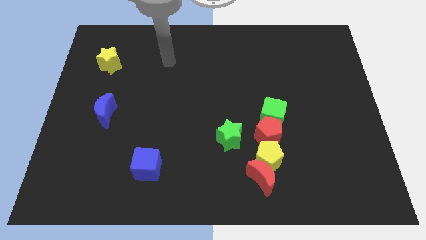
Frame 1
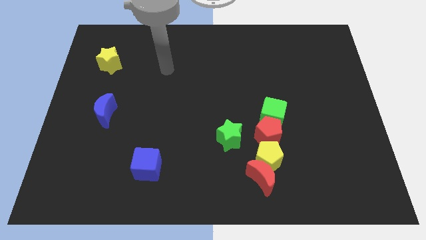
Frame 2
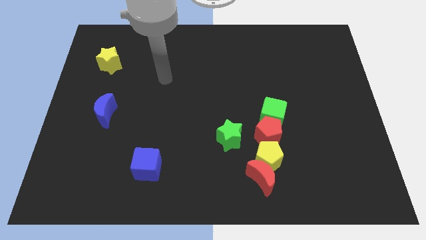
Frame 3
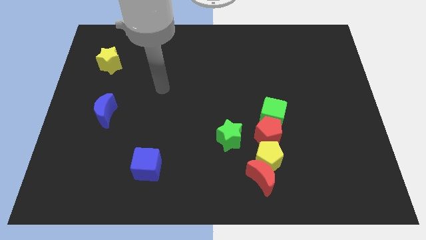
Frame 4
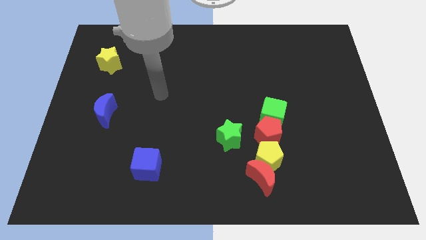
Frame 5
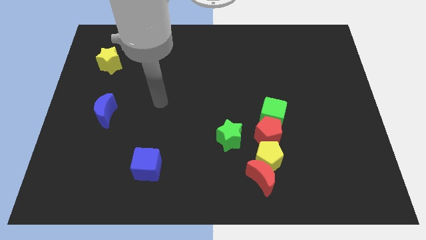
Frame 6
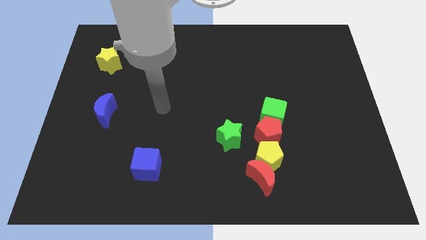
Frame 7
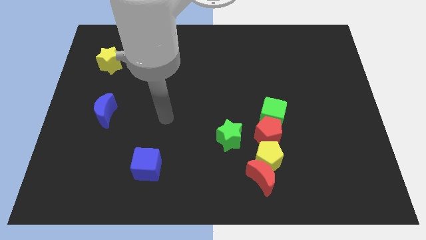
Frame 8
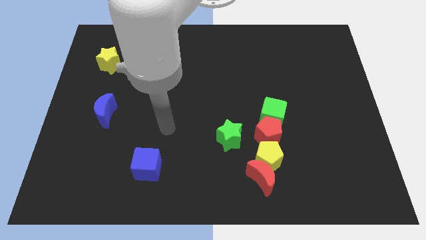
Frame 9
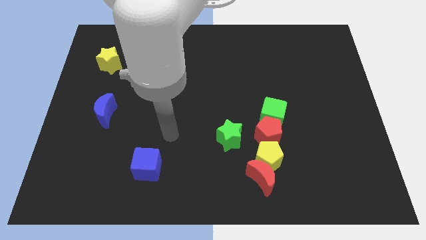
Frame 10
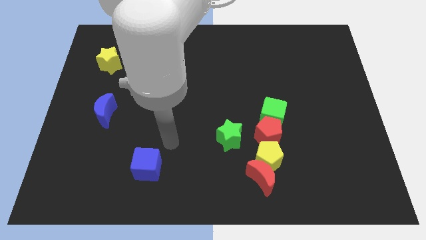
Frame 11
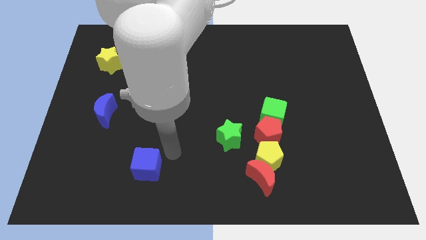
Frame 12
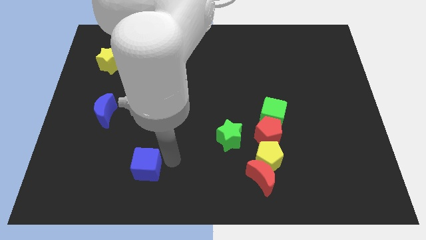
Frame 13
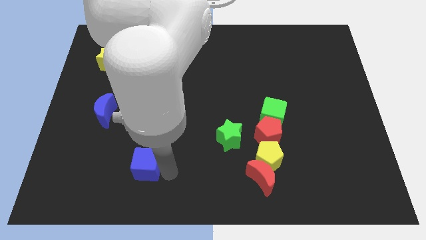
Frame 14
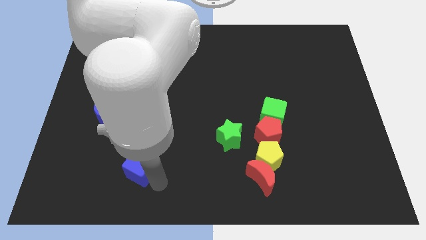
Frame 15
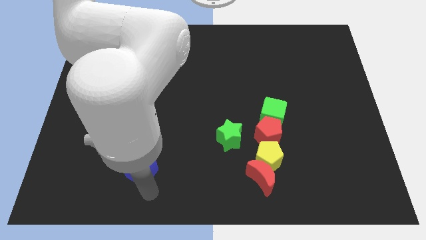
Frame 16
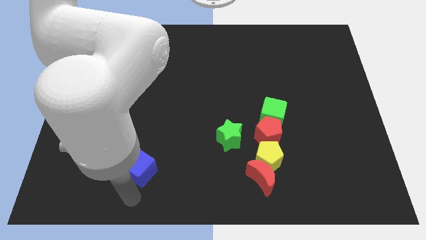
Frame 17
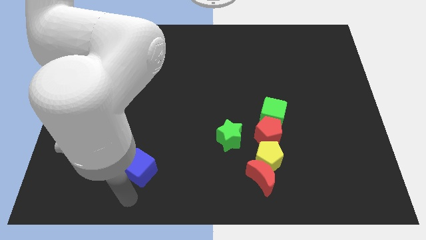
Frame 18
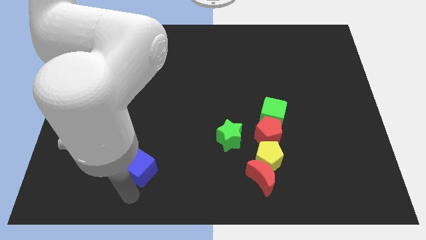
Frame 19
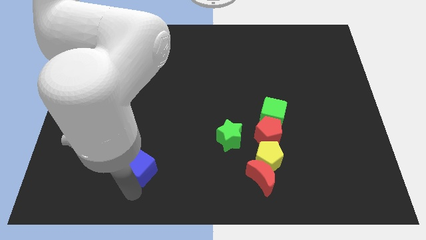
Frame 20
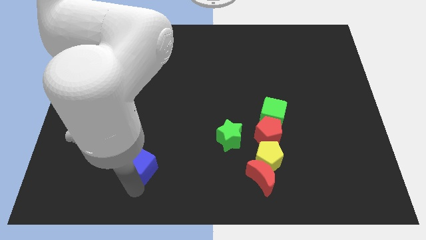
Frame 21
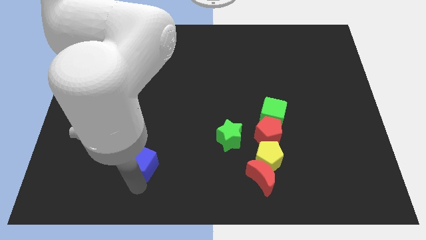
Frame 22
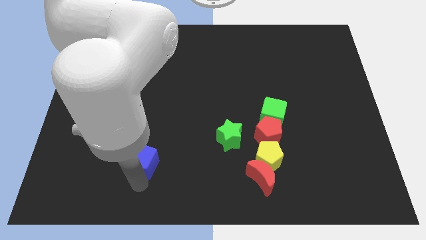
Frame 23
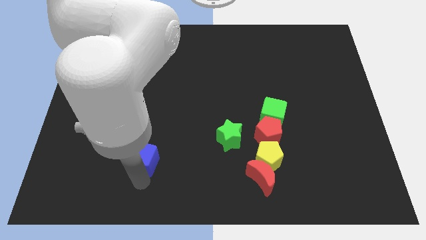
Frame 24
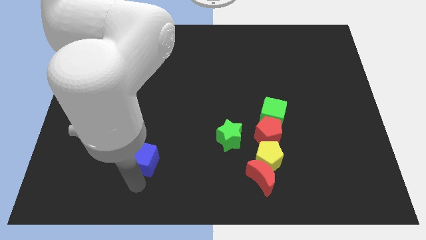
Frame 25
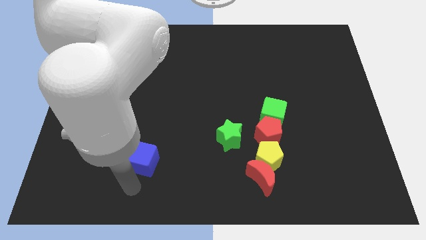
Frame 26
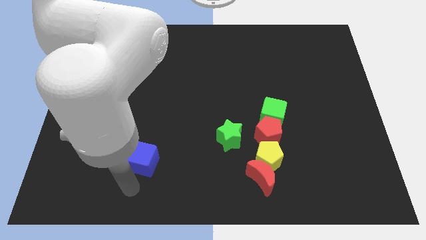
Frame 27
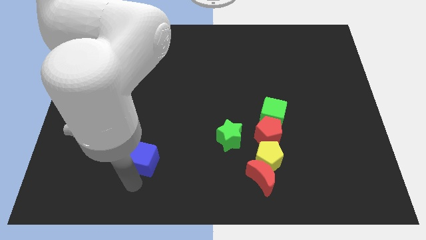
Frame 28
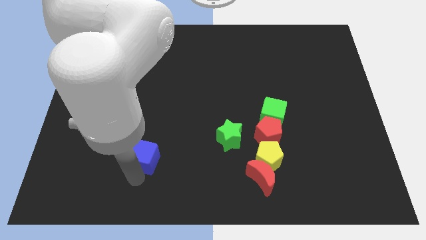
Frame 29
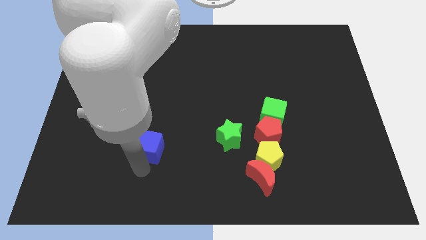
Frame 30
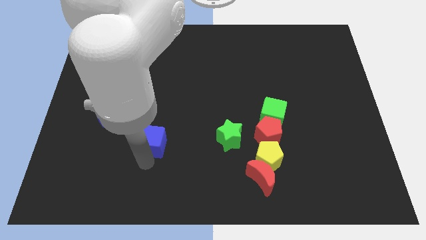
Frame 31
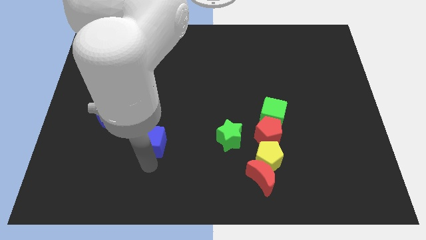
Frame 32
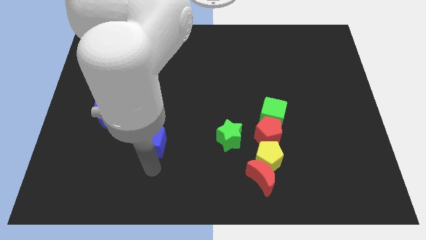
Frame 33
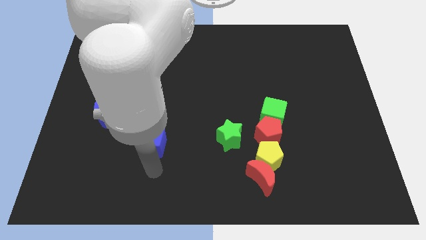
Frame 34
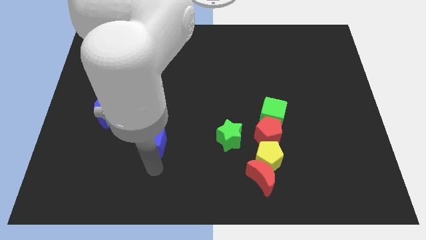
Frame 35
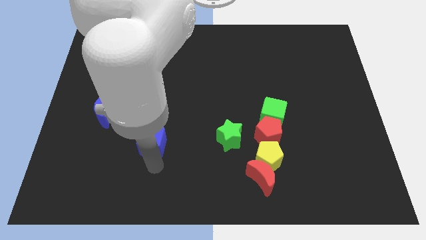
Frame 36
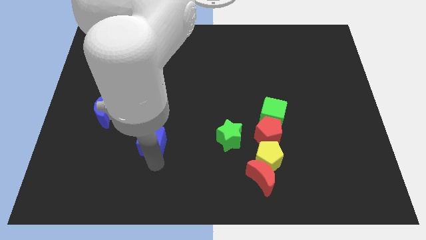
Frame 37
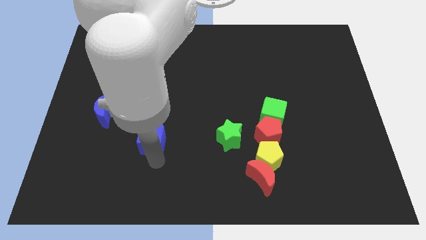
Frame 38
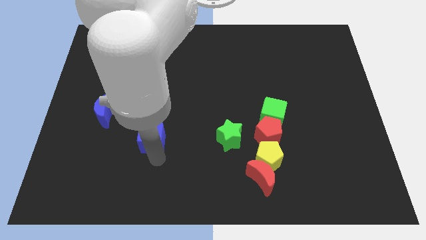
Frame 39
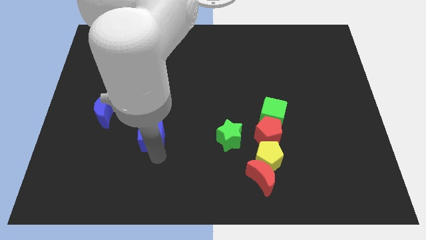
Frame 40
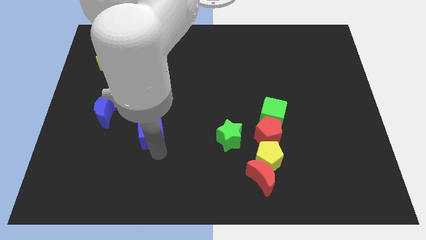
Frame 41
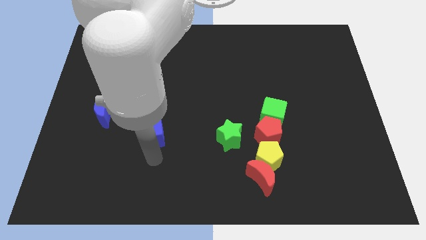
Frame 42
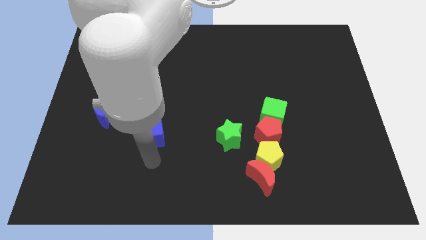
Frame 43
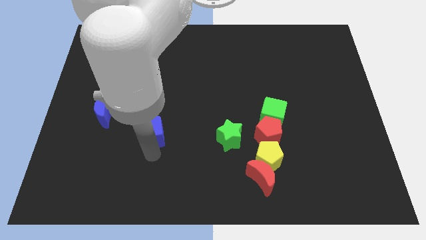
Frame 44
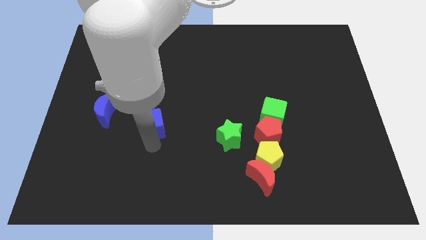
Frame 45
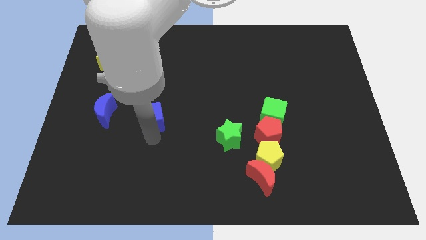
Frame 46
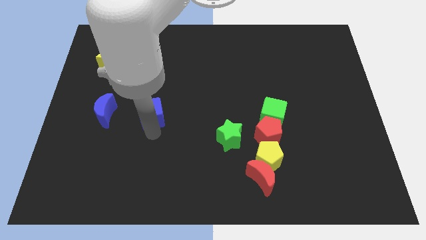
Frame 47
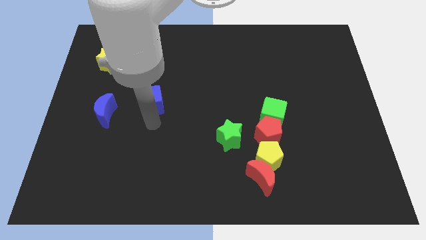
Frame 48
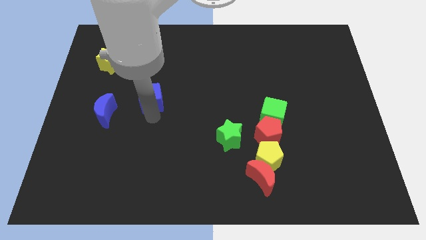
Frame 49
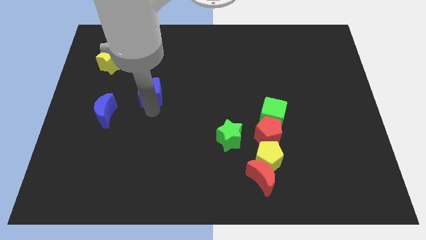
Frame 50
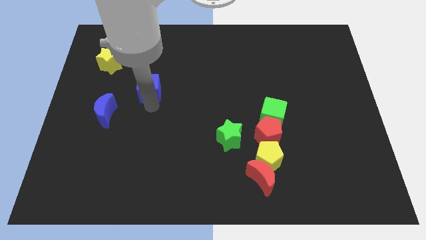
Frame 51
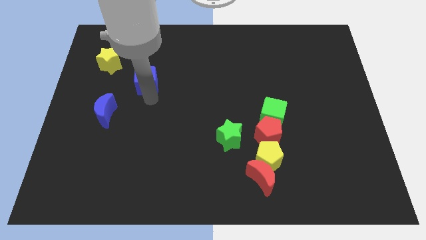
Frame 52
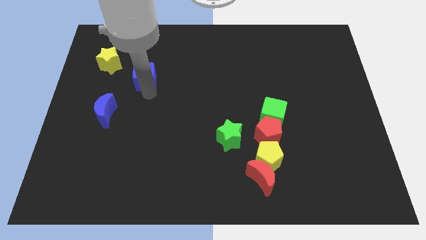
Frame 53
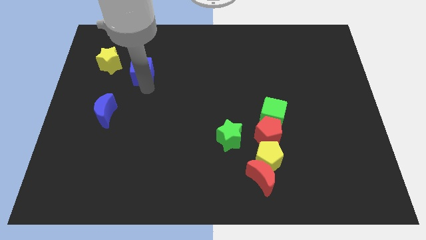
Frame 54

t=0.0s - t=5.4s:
put the blue cube to the right of the yellow star

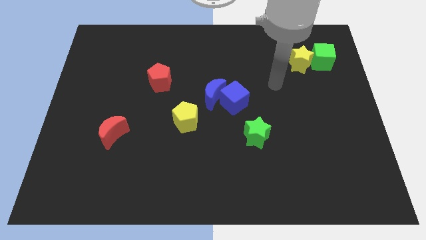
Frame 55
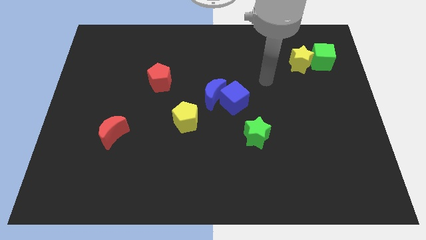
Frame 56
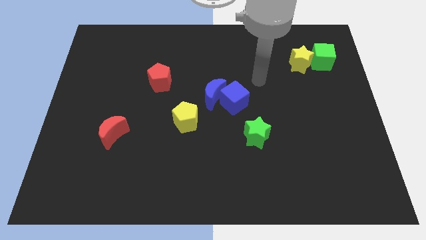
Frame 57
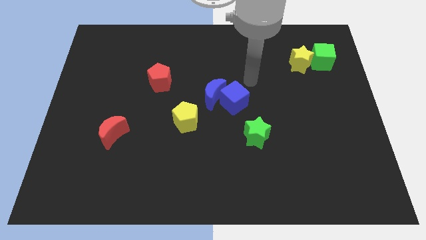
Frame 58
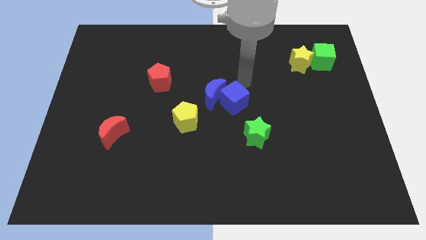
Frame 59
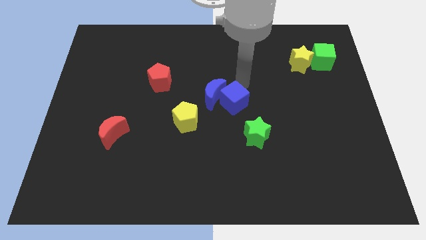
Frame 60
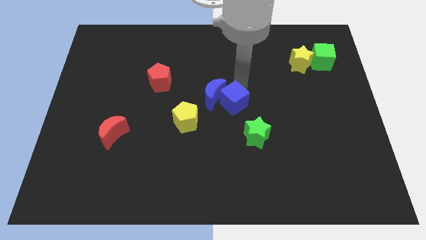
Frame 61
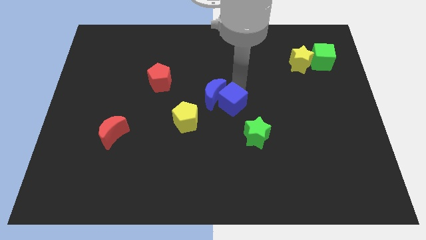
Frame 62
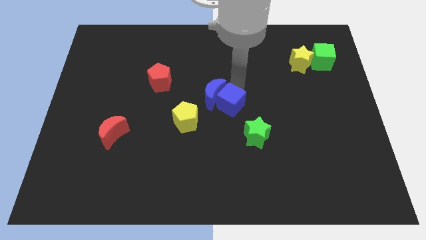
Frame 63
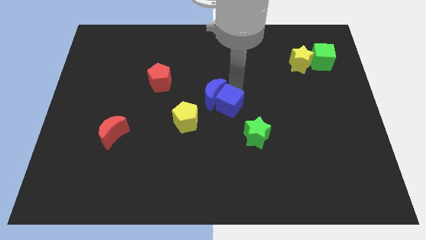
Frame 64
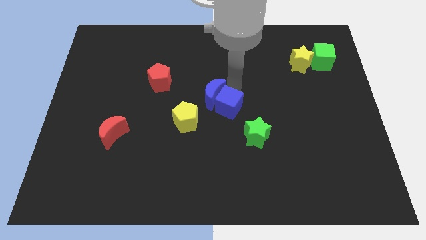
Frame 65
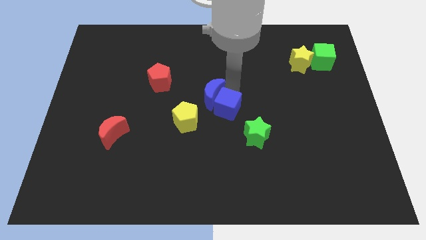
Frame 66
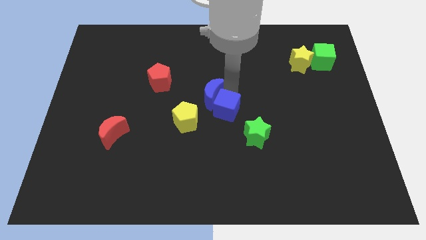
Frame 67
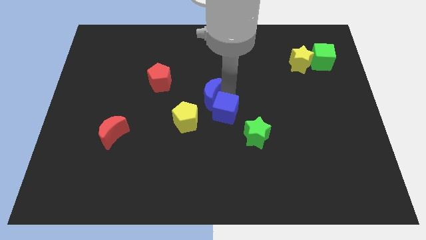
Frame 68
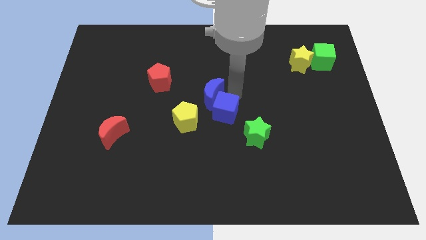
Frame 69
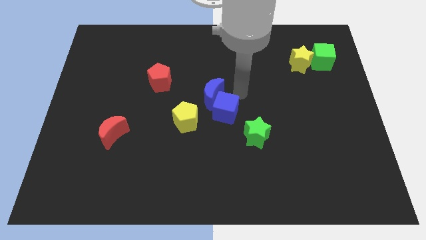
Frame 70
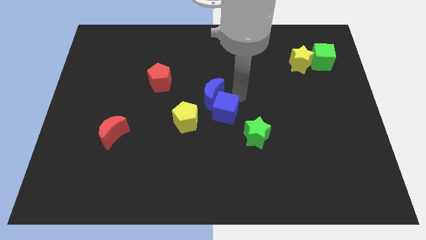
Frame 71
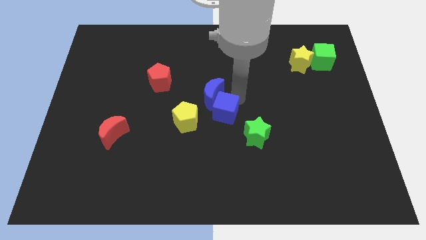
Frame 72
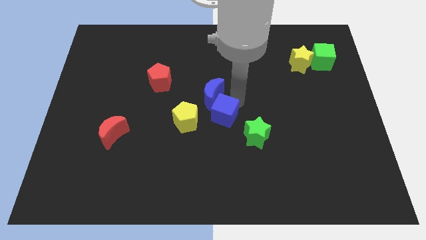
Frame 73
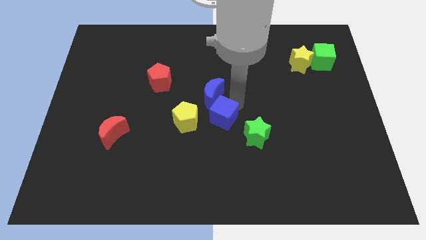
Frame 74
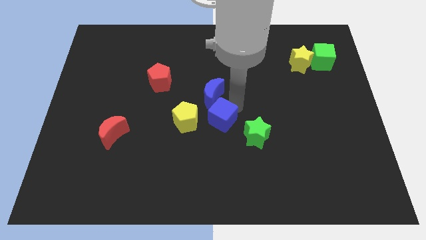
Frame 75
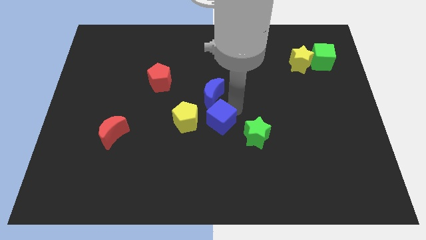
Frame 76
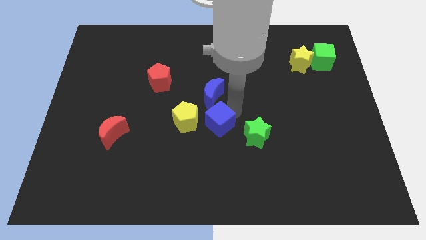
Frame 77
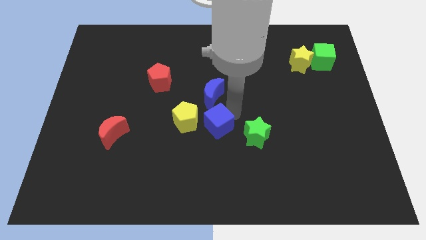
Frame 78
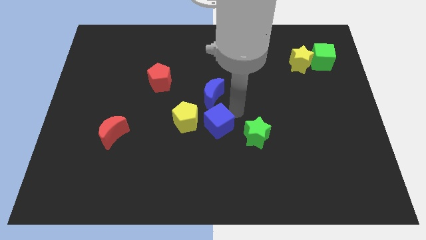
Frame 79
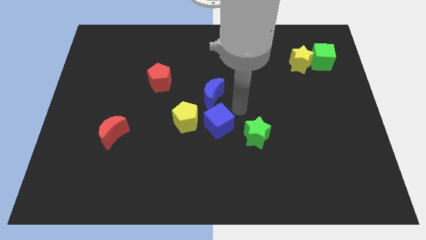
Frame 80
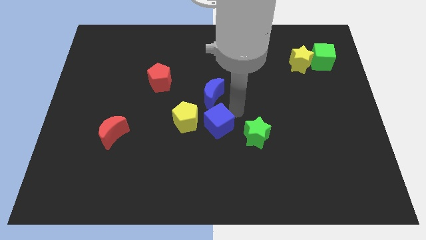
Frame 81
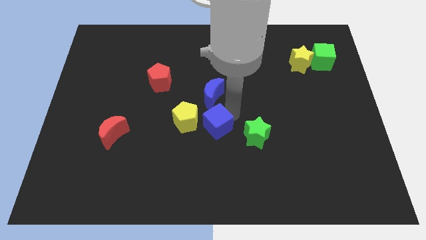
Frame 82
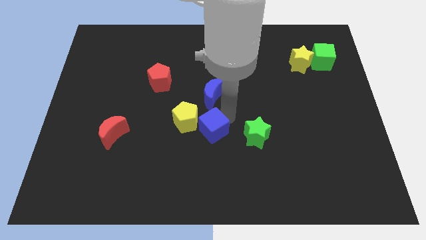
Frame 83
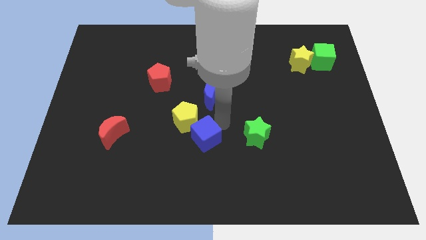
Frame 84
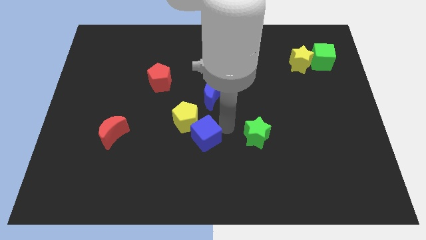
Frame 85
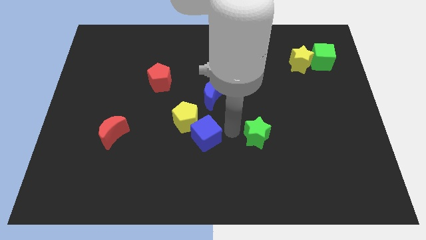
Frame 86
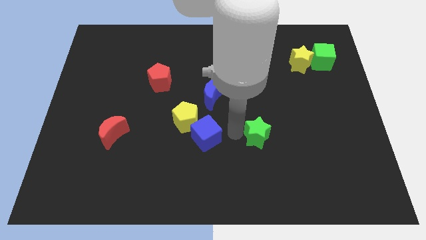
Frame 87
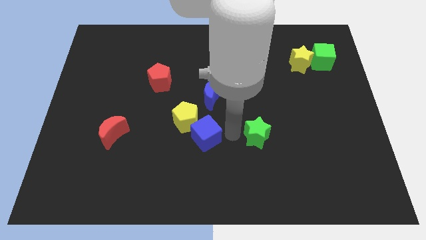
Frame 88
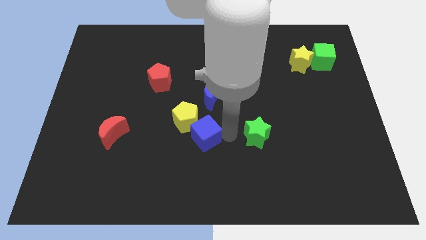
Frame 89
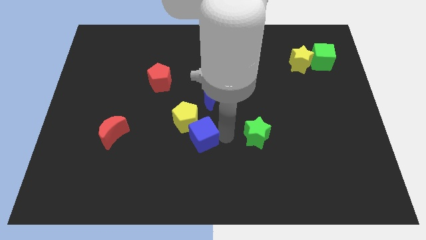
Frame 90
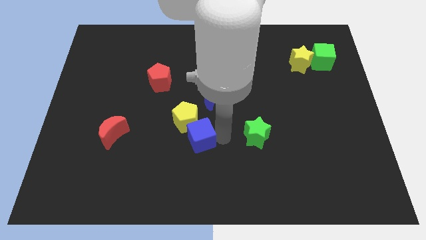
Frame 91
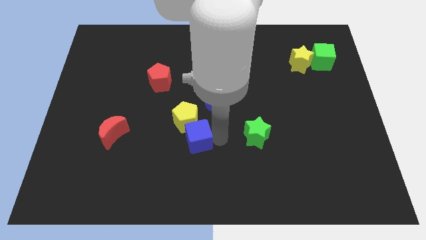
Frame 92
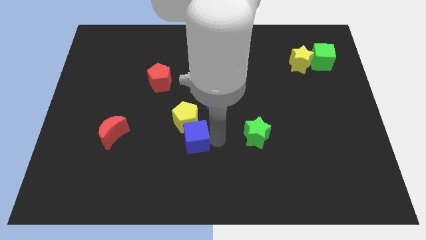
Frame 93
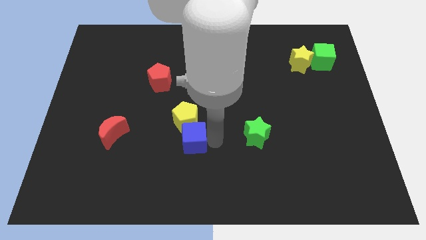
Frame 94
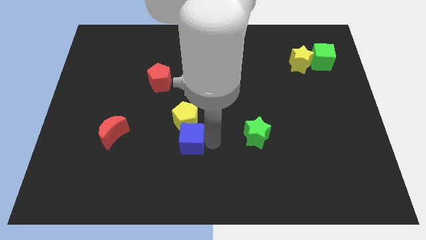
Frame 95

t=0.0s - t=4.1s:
move the blue cube to the bottom left side of the yellow pentagon
